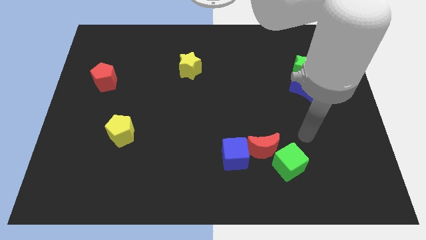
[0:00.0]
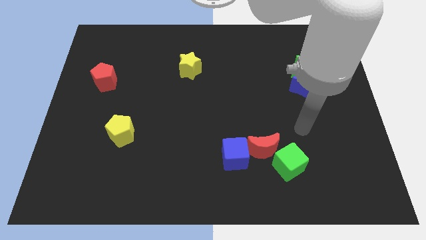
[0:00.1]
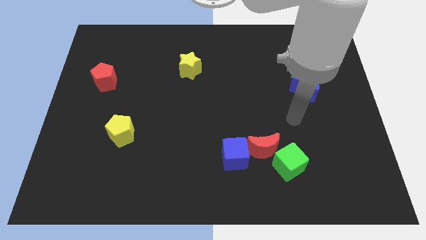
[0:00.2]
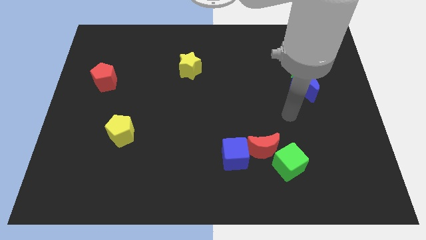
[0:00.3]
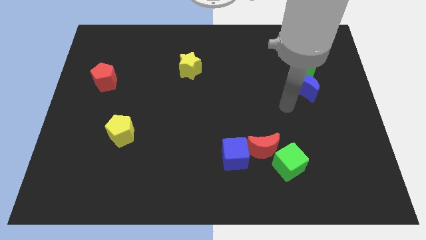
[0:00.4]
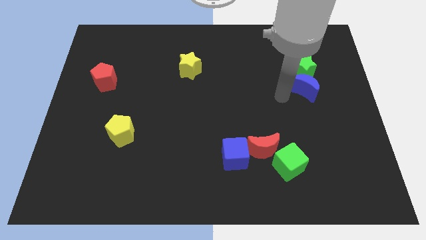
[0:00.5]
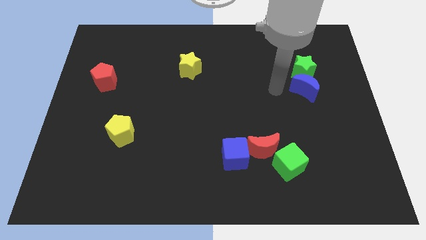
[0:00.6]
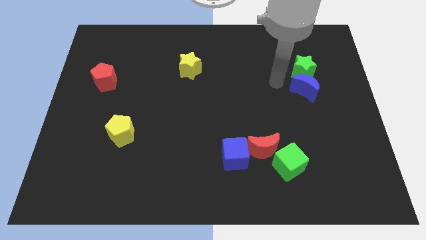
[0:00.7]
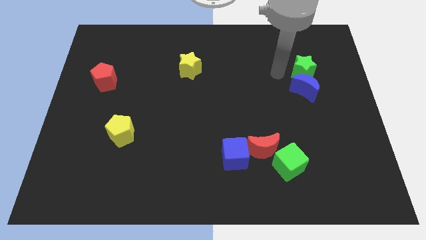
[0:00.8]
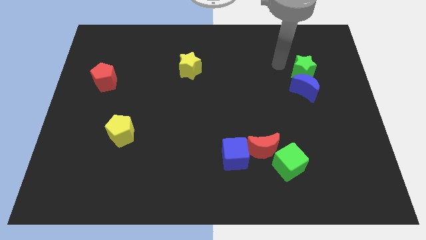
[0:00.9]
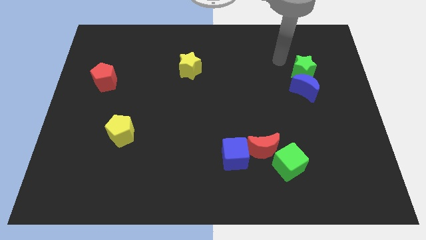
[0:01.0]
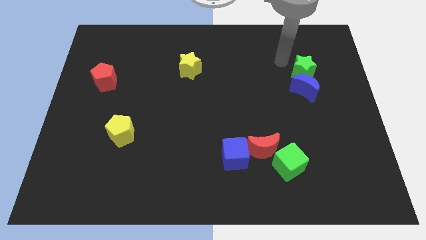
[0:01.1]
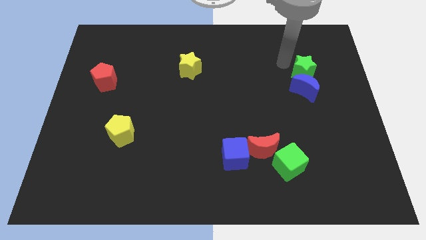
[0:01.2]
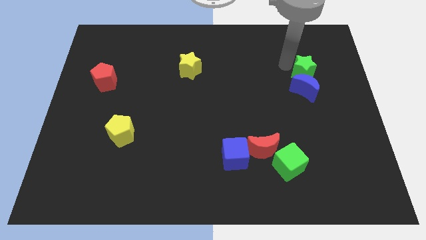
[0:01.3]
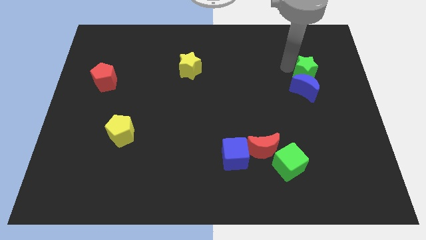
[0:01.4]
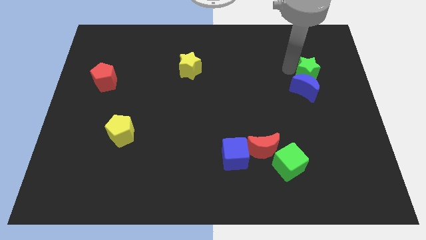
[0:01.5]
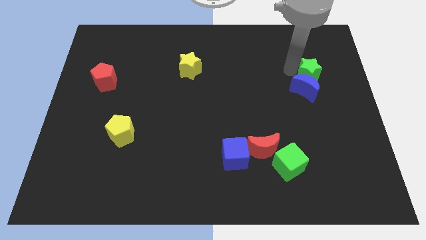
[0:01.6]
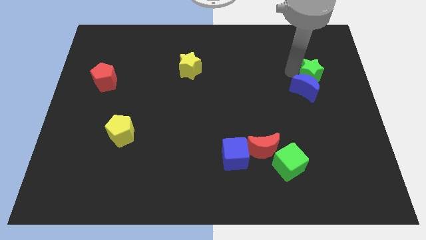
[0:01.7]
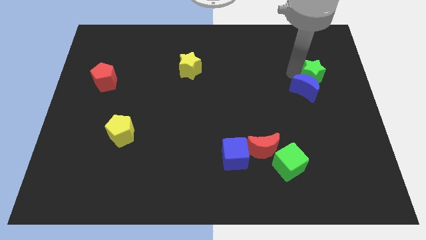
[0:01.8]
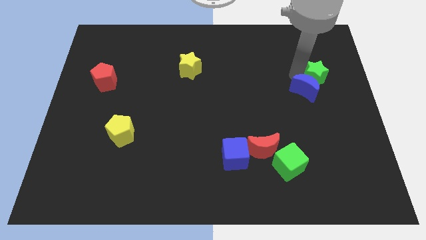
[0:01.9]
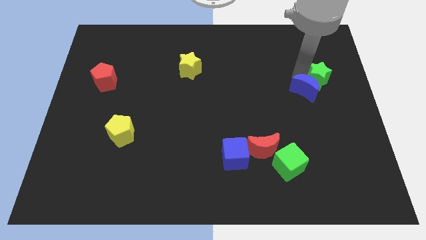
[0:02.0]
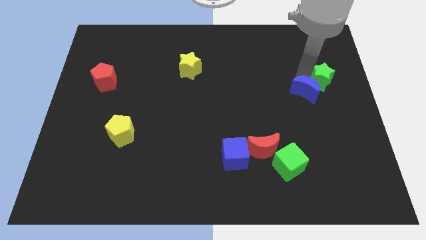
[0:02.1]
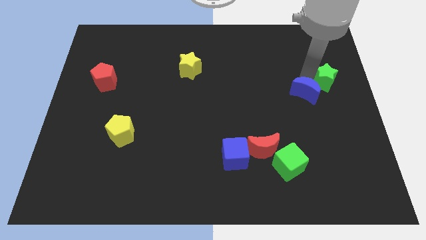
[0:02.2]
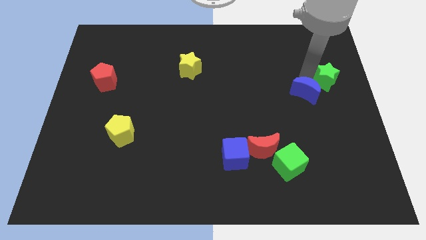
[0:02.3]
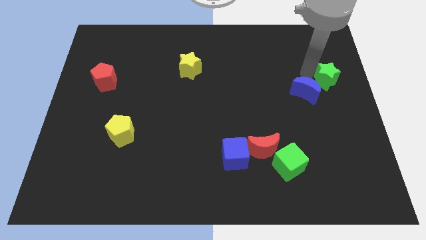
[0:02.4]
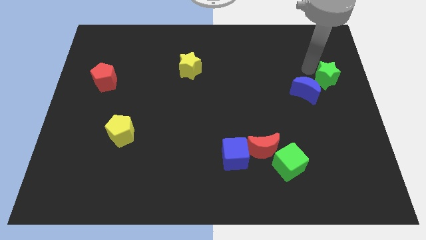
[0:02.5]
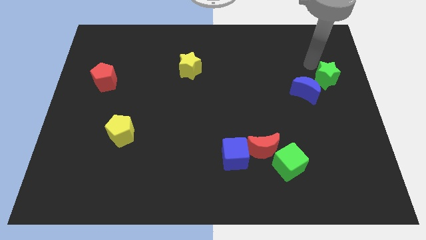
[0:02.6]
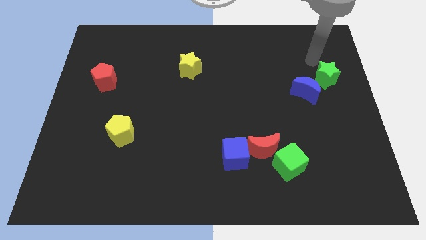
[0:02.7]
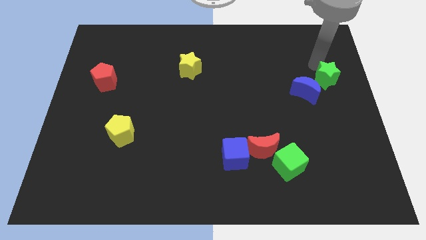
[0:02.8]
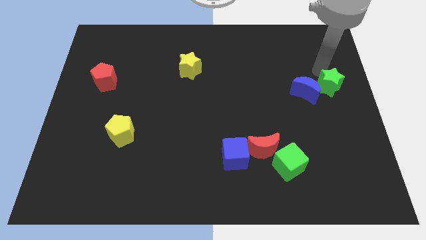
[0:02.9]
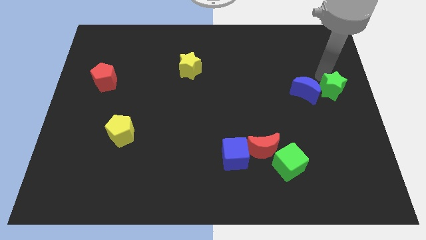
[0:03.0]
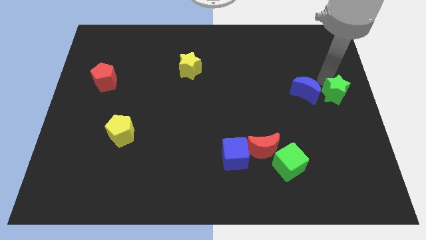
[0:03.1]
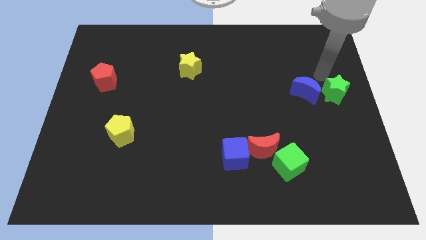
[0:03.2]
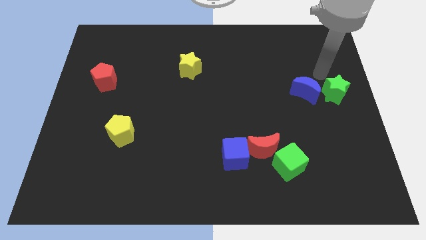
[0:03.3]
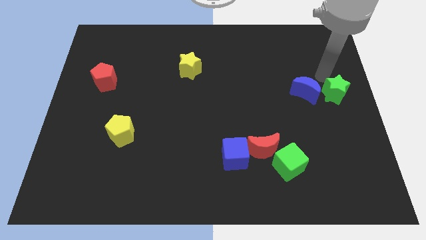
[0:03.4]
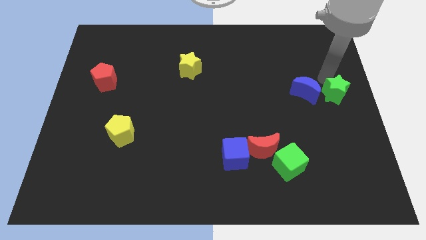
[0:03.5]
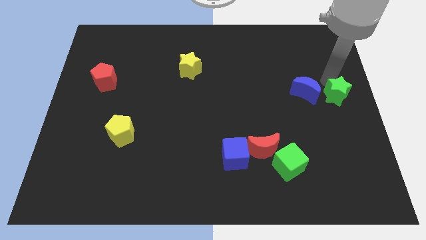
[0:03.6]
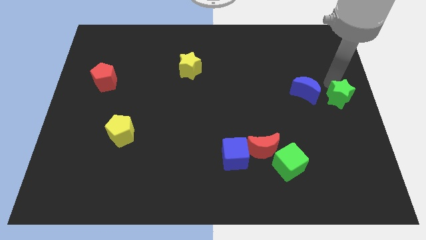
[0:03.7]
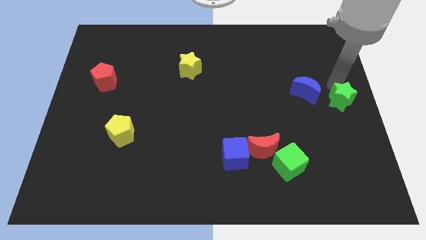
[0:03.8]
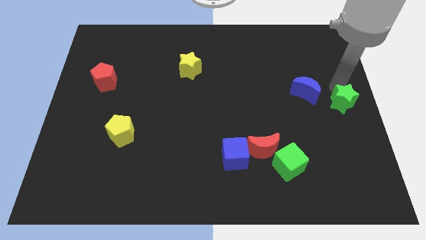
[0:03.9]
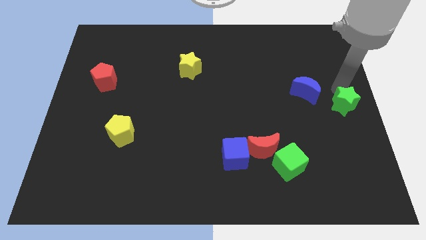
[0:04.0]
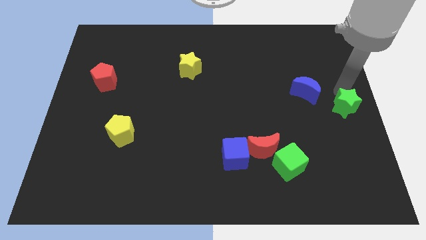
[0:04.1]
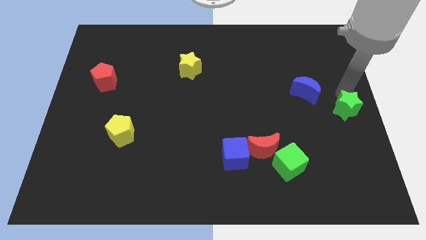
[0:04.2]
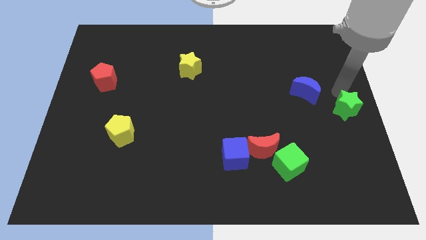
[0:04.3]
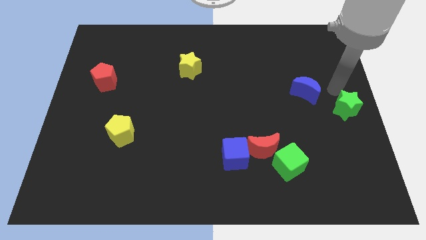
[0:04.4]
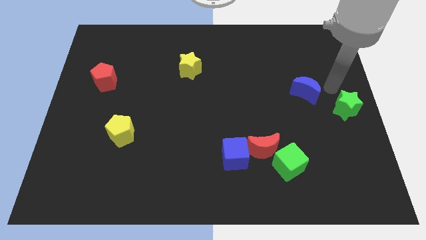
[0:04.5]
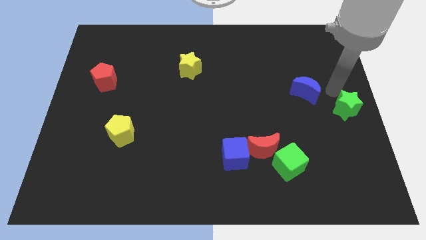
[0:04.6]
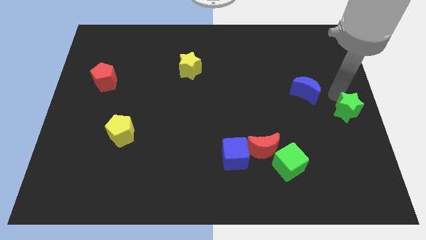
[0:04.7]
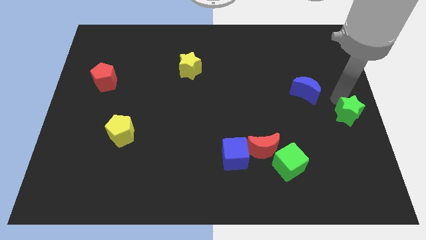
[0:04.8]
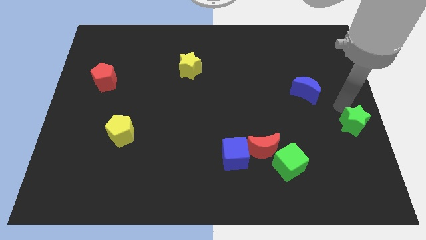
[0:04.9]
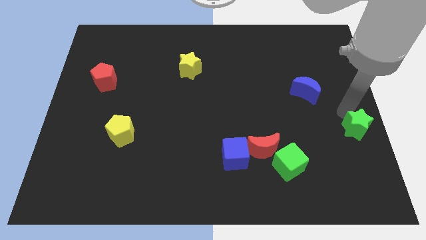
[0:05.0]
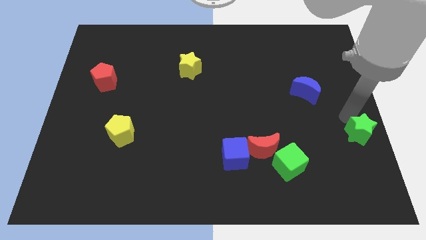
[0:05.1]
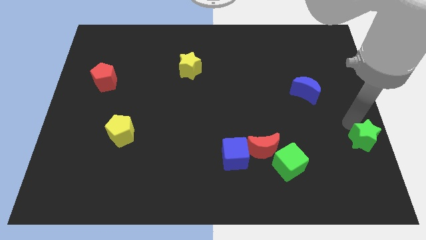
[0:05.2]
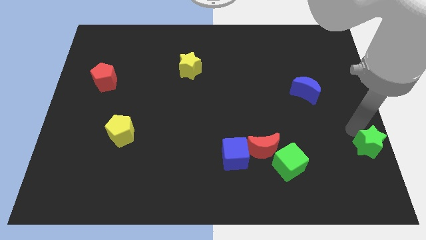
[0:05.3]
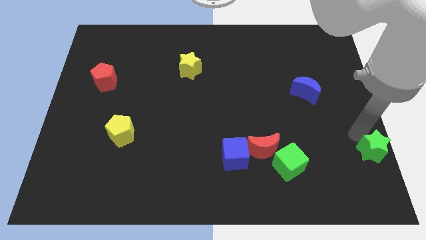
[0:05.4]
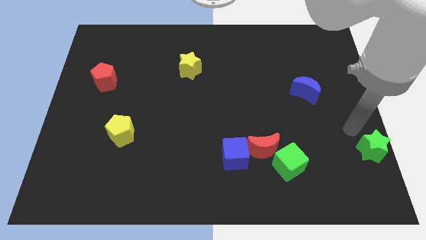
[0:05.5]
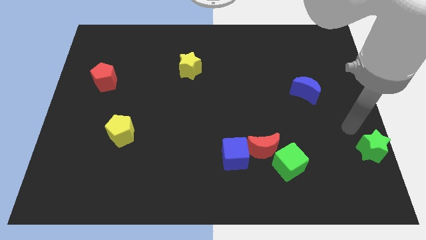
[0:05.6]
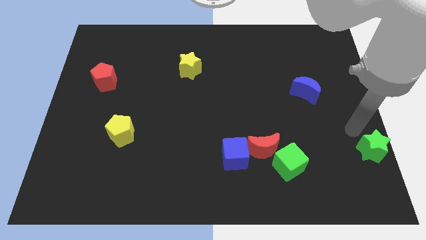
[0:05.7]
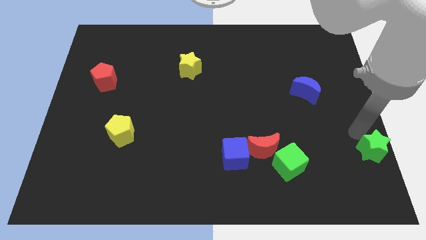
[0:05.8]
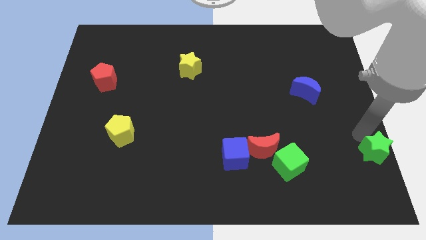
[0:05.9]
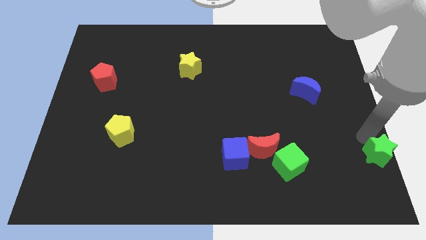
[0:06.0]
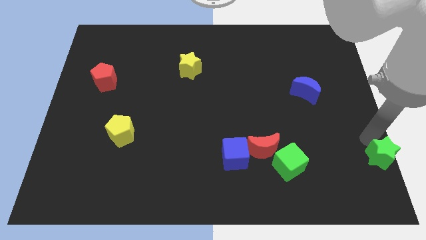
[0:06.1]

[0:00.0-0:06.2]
move the green star to the lower right corner
